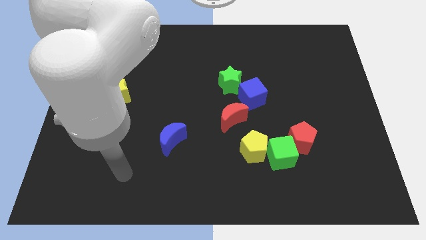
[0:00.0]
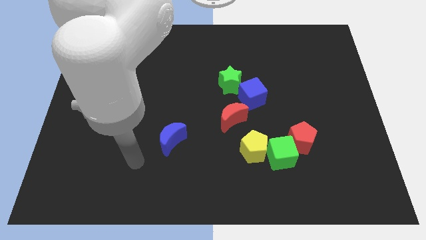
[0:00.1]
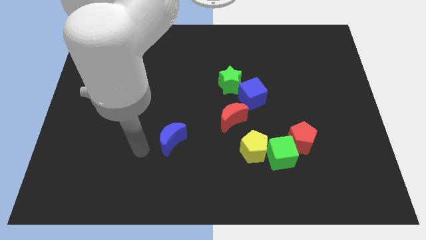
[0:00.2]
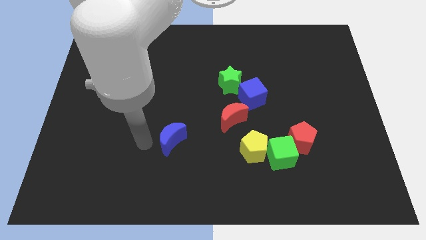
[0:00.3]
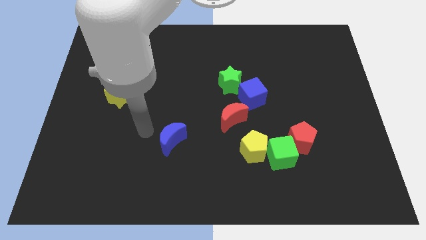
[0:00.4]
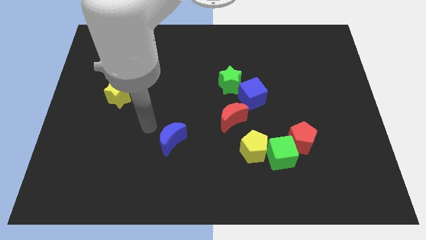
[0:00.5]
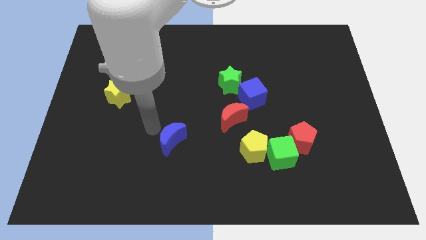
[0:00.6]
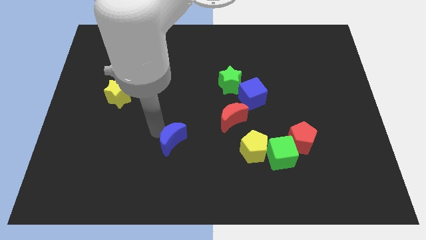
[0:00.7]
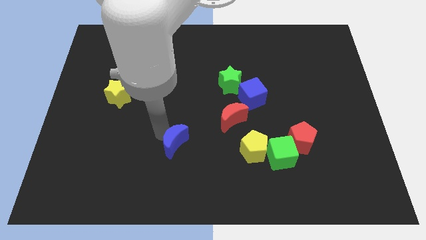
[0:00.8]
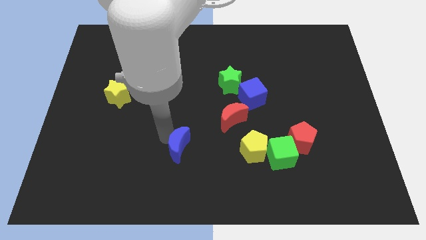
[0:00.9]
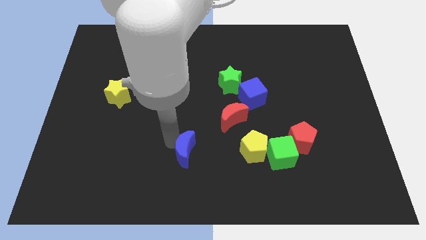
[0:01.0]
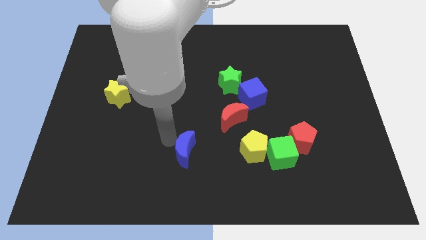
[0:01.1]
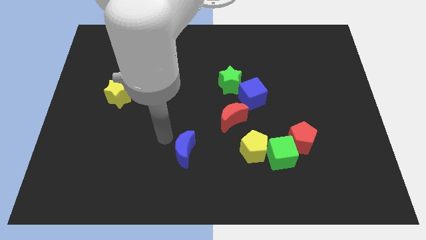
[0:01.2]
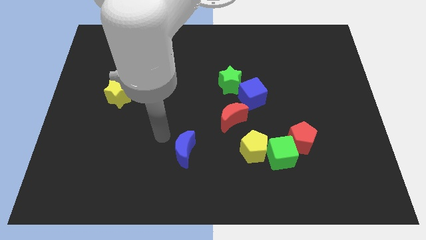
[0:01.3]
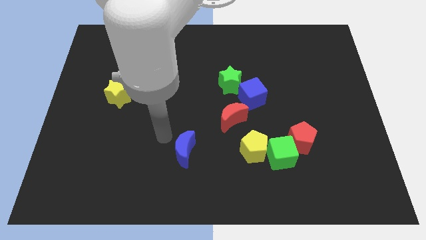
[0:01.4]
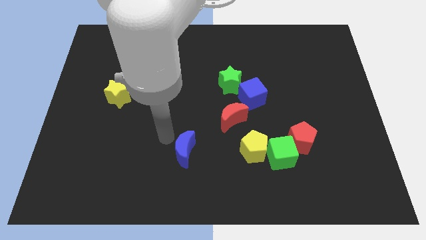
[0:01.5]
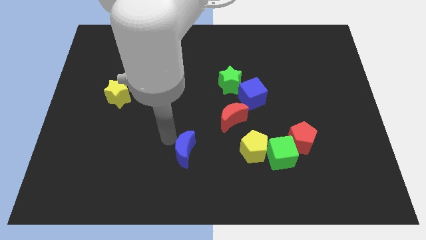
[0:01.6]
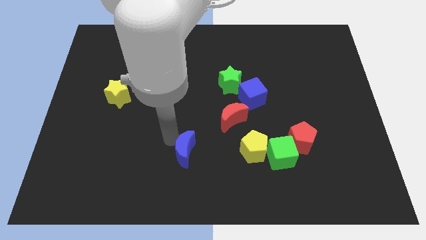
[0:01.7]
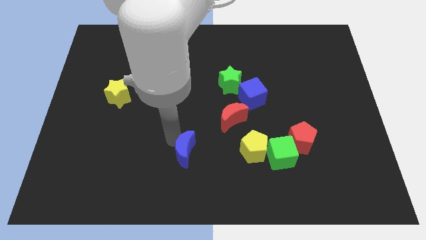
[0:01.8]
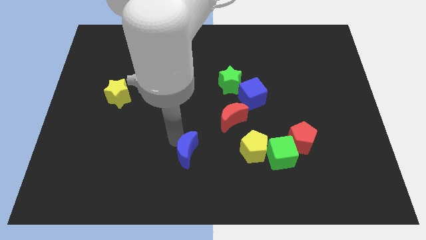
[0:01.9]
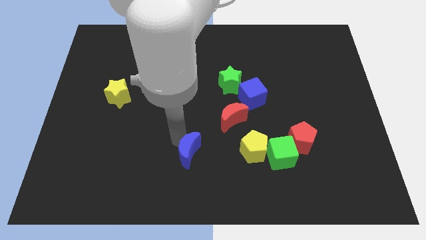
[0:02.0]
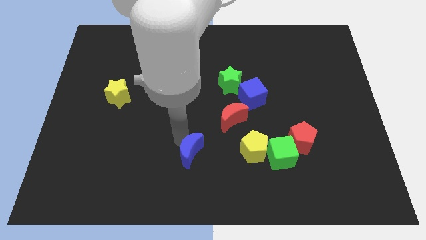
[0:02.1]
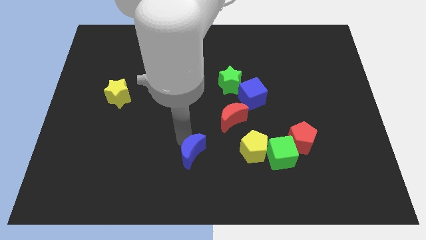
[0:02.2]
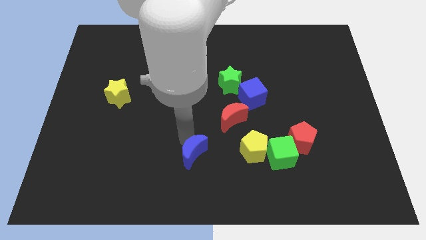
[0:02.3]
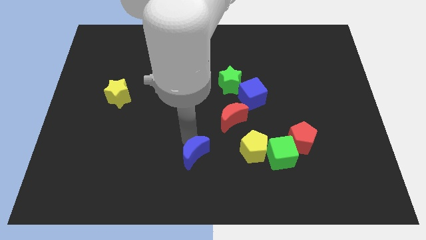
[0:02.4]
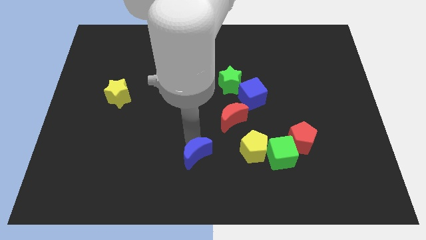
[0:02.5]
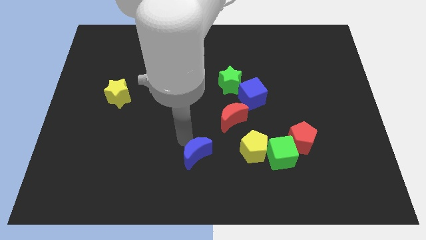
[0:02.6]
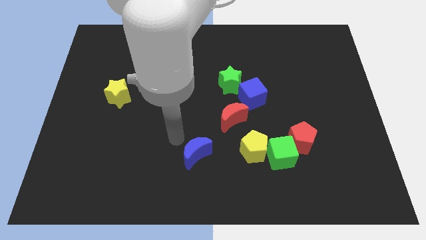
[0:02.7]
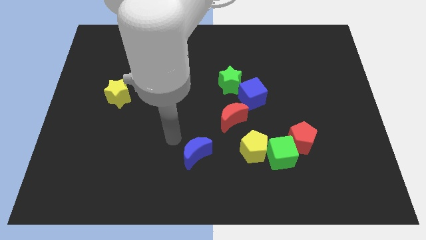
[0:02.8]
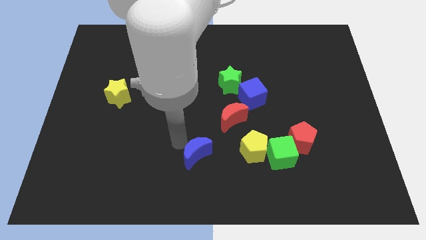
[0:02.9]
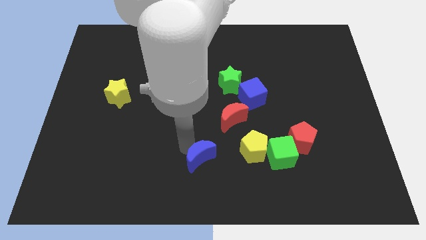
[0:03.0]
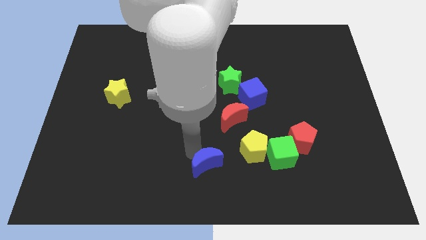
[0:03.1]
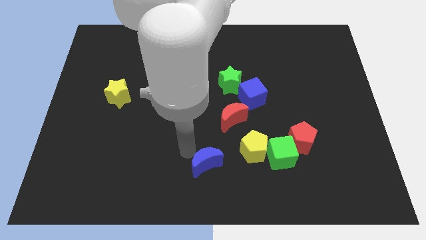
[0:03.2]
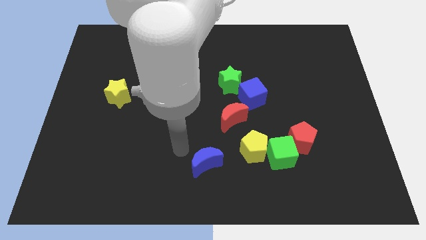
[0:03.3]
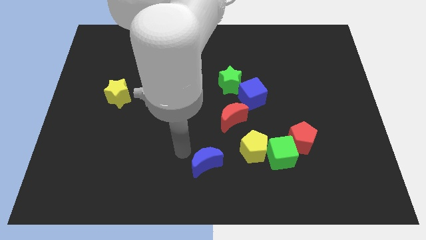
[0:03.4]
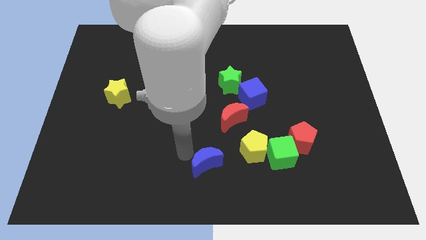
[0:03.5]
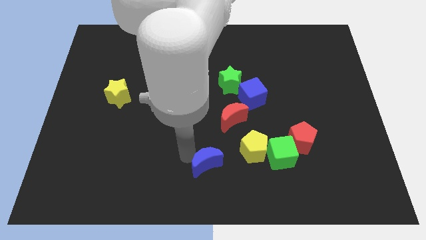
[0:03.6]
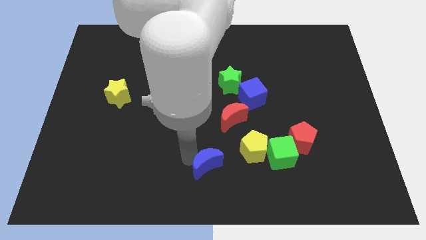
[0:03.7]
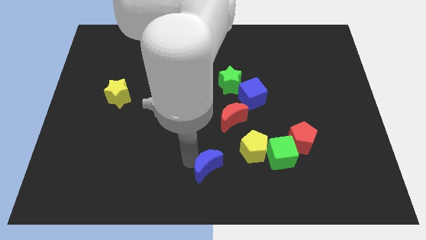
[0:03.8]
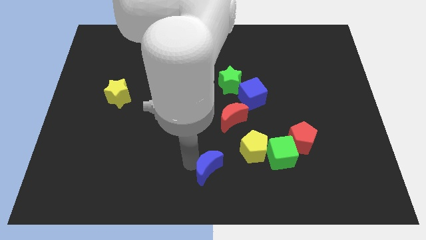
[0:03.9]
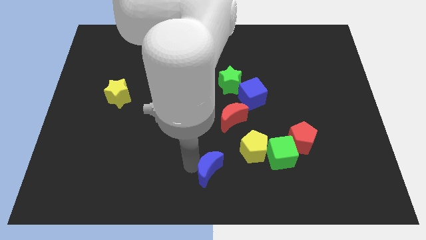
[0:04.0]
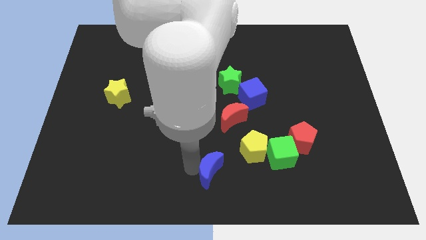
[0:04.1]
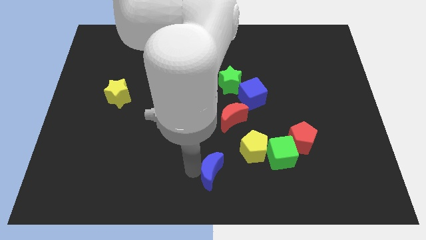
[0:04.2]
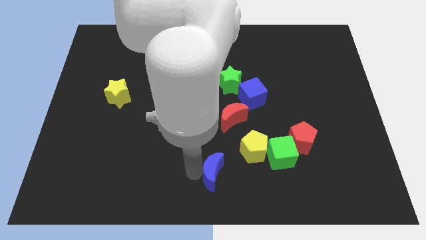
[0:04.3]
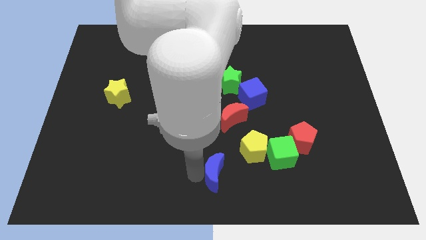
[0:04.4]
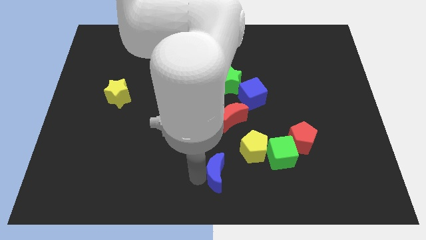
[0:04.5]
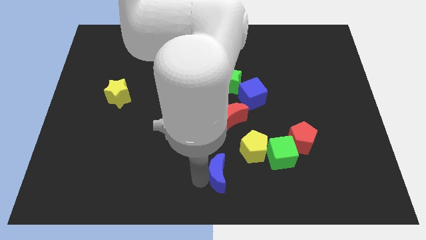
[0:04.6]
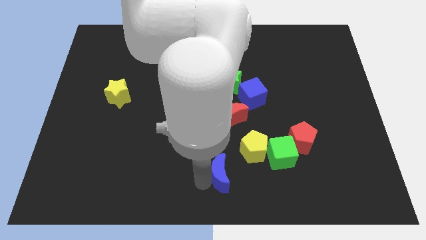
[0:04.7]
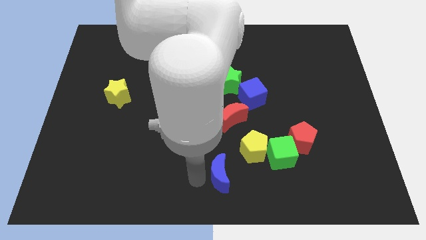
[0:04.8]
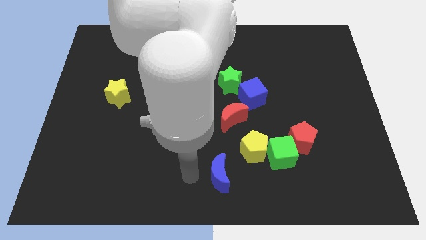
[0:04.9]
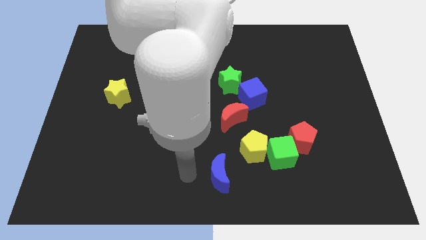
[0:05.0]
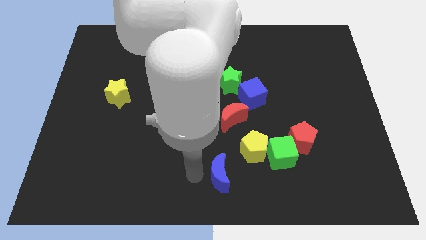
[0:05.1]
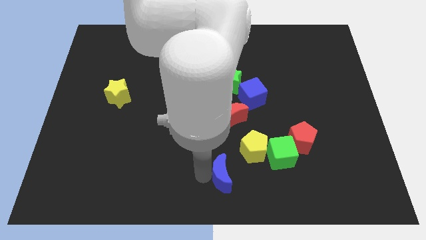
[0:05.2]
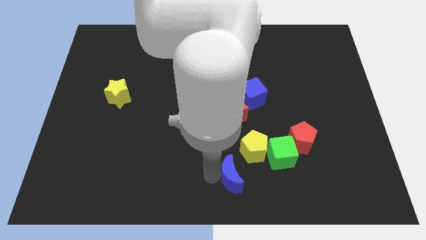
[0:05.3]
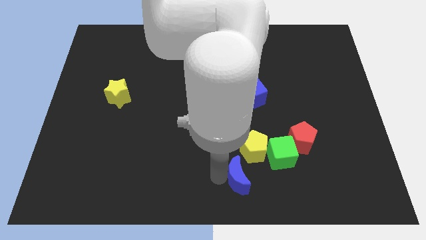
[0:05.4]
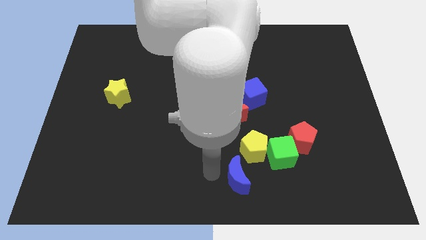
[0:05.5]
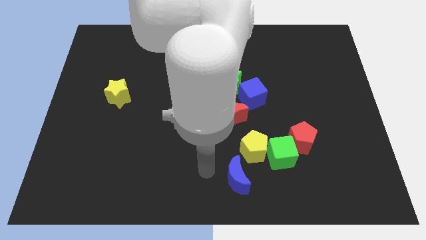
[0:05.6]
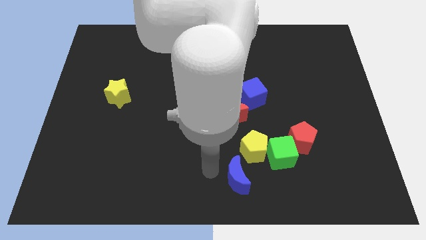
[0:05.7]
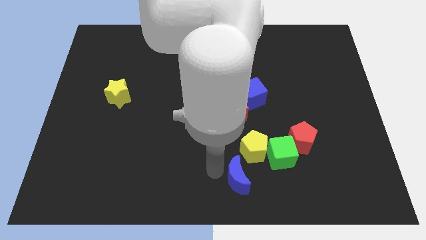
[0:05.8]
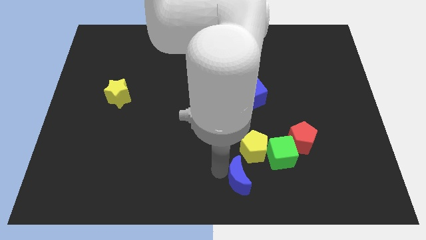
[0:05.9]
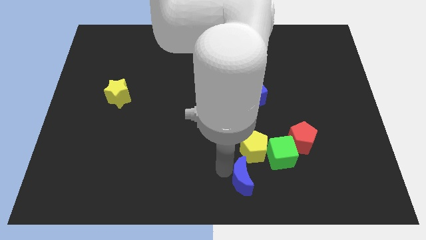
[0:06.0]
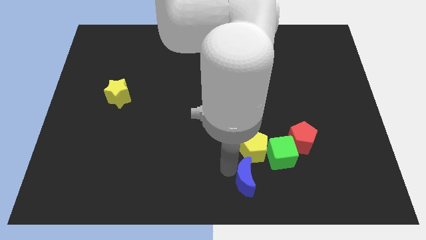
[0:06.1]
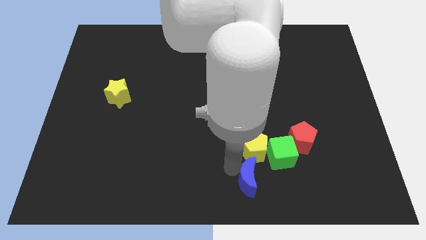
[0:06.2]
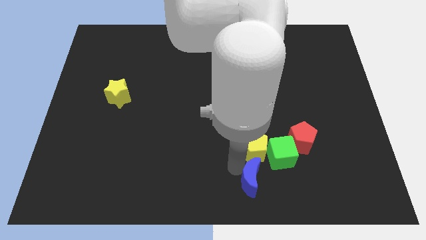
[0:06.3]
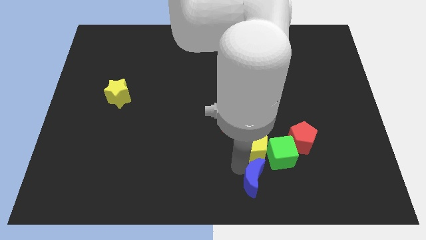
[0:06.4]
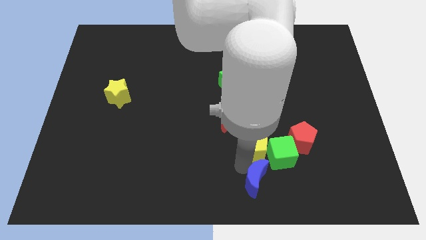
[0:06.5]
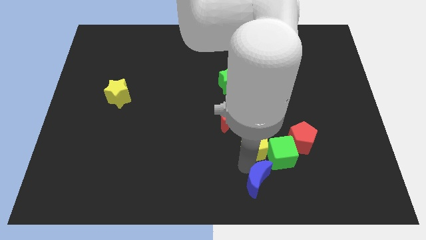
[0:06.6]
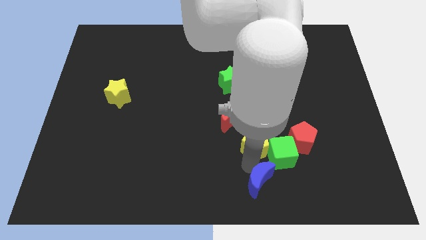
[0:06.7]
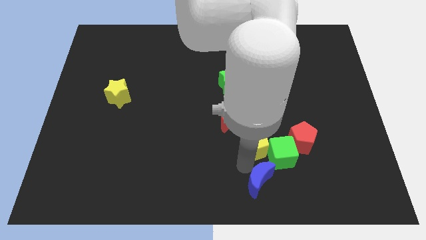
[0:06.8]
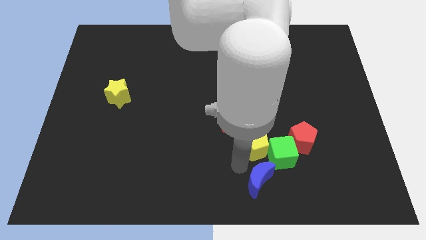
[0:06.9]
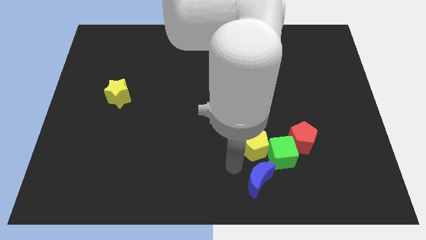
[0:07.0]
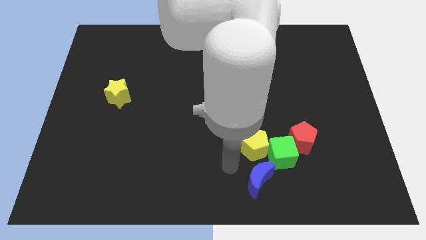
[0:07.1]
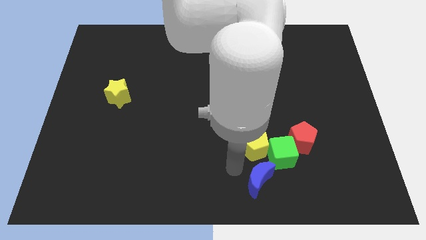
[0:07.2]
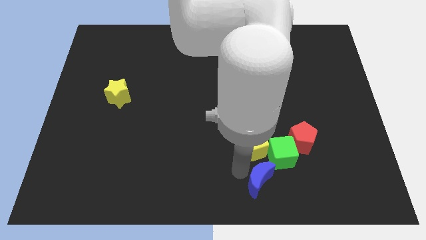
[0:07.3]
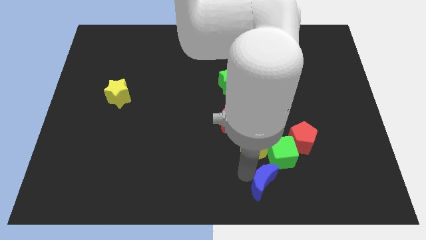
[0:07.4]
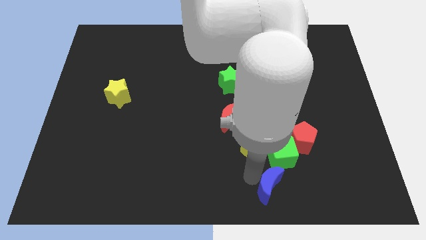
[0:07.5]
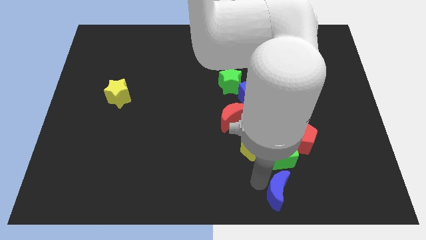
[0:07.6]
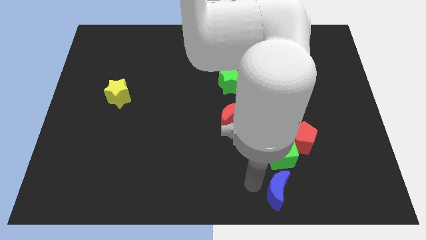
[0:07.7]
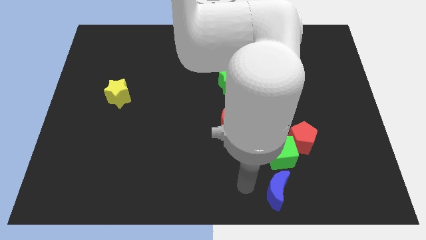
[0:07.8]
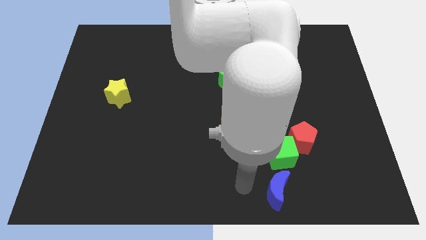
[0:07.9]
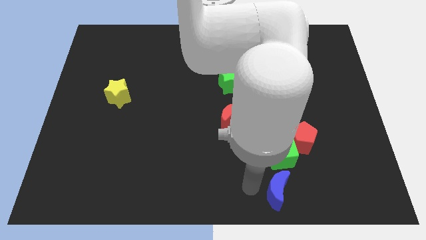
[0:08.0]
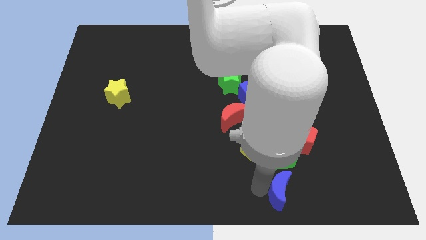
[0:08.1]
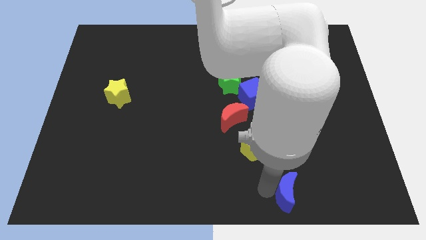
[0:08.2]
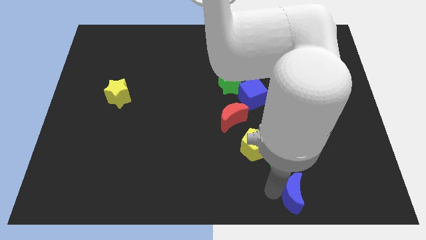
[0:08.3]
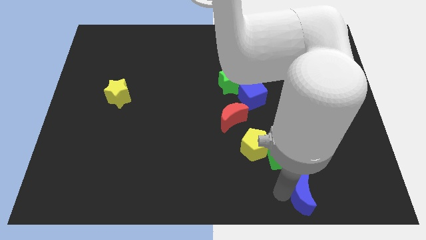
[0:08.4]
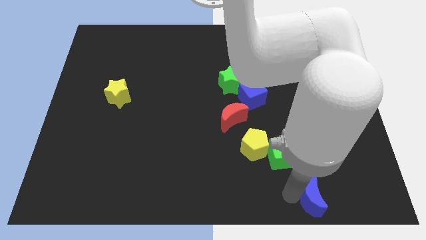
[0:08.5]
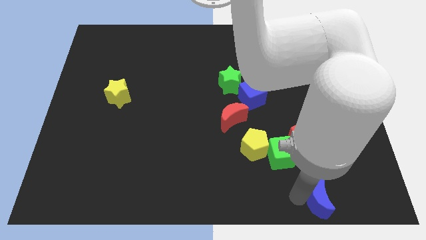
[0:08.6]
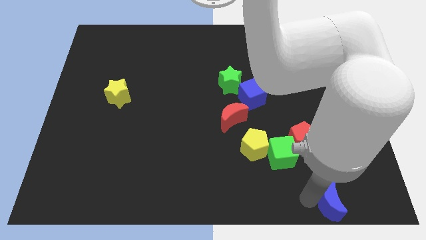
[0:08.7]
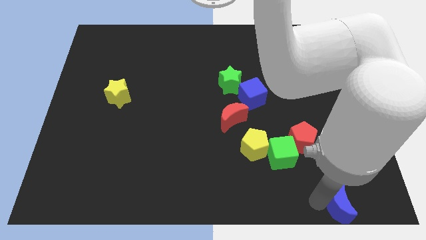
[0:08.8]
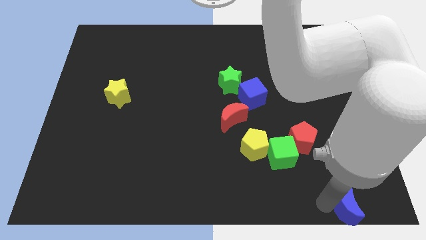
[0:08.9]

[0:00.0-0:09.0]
slide the blue moon to the bottom right of the board
